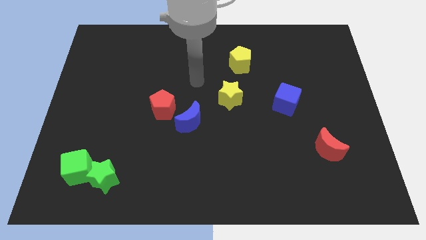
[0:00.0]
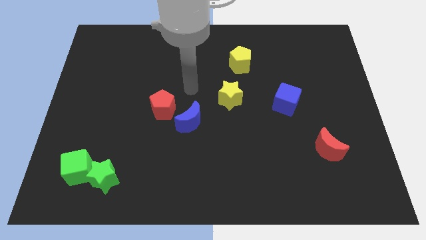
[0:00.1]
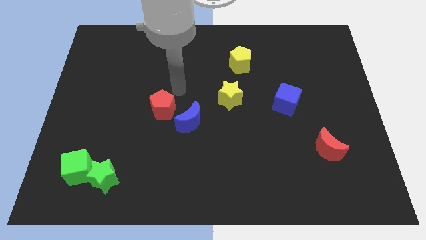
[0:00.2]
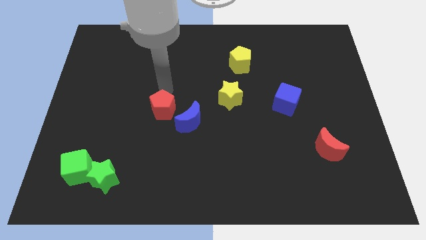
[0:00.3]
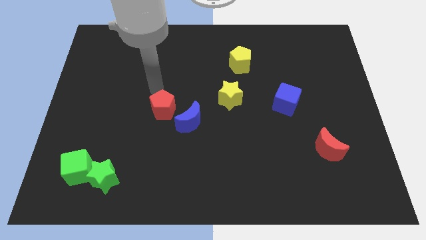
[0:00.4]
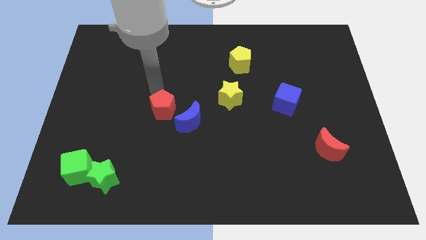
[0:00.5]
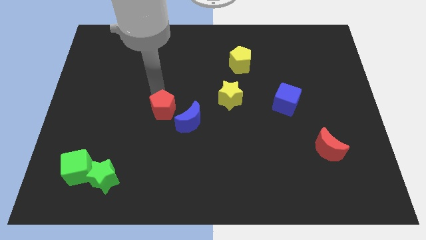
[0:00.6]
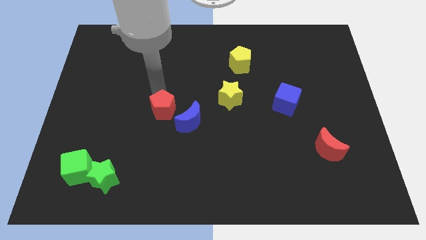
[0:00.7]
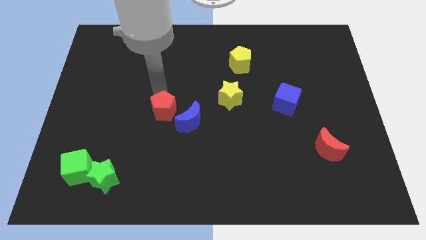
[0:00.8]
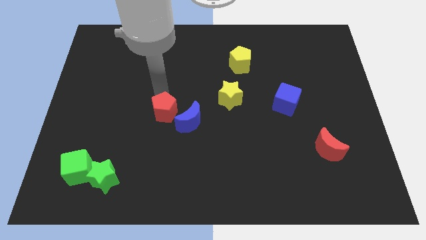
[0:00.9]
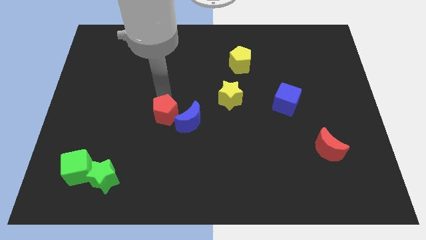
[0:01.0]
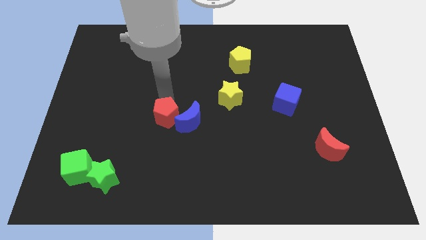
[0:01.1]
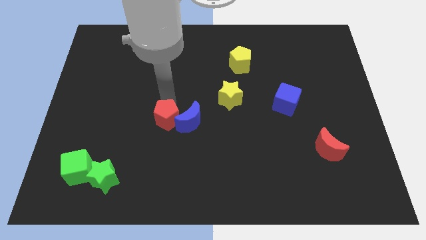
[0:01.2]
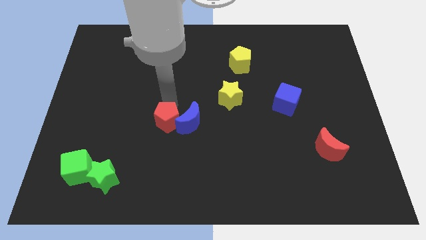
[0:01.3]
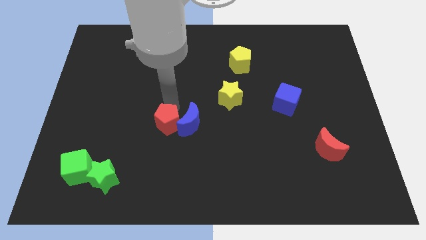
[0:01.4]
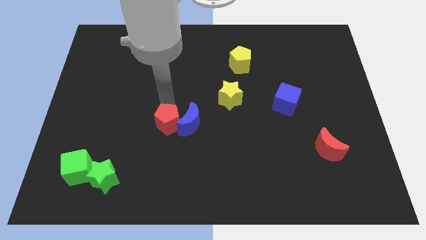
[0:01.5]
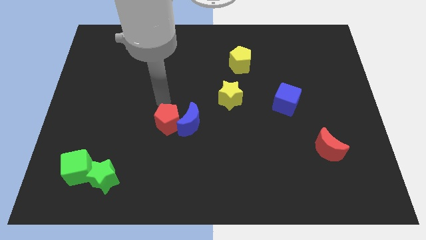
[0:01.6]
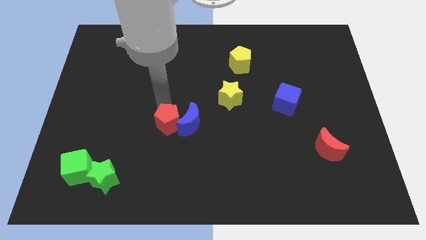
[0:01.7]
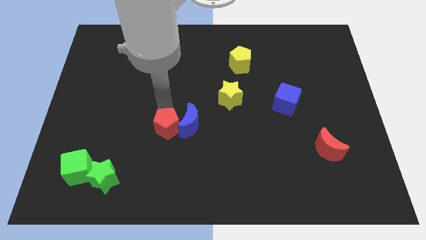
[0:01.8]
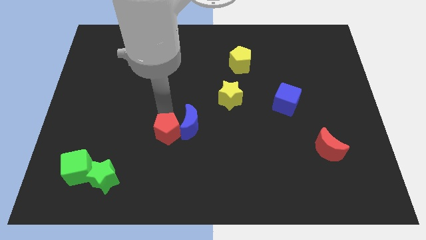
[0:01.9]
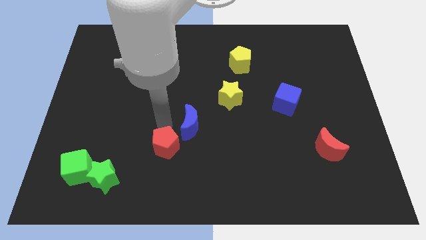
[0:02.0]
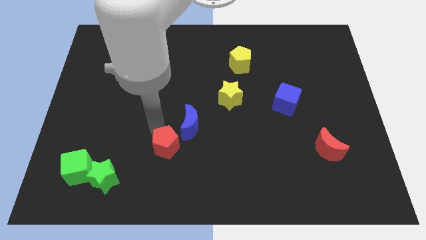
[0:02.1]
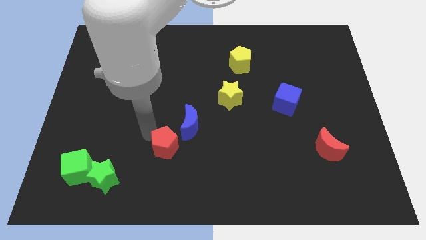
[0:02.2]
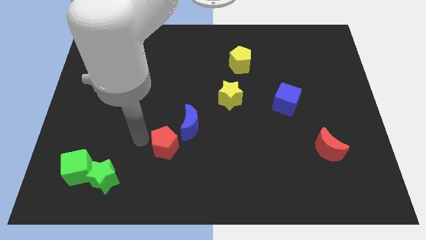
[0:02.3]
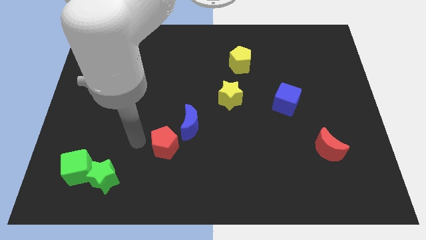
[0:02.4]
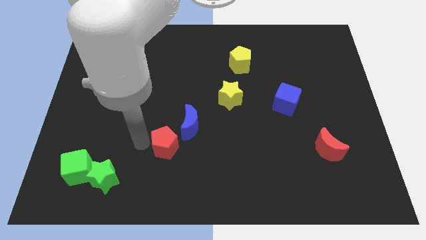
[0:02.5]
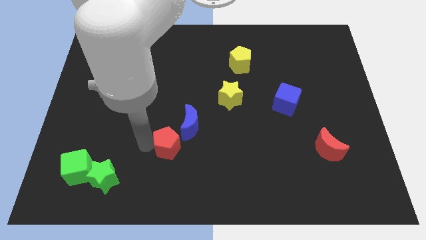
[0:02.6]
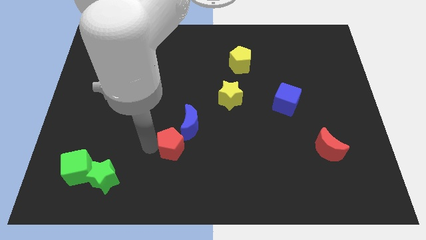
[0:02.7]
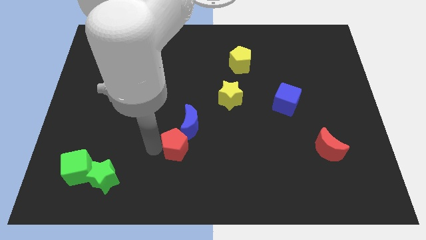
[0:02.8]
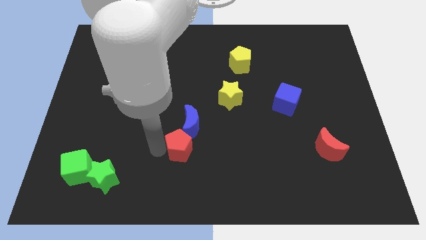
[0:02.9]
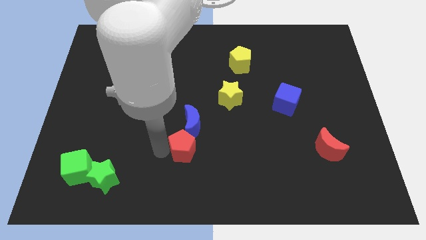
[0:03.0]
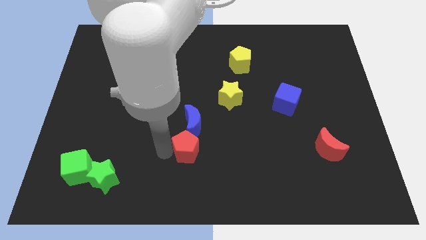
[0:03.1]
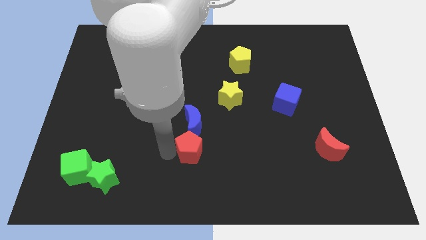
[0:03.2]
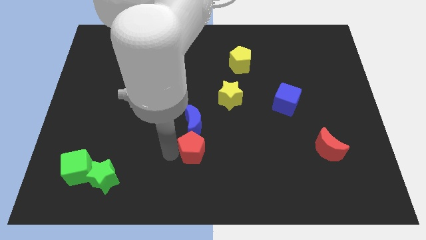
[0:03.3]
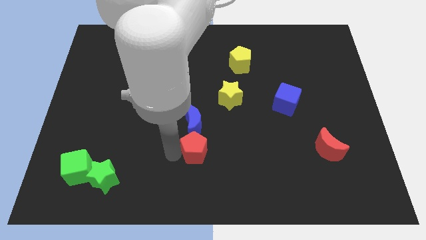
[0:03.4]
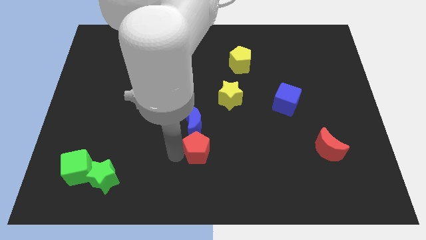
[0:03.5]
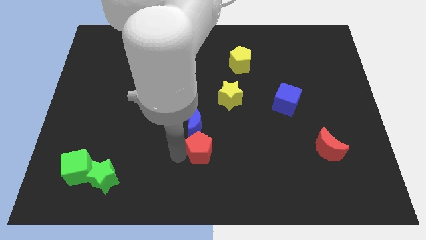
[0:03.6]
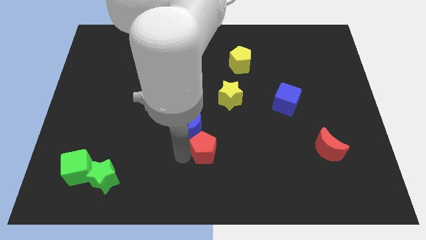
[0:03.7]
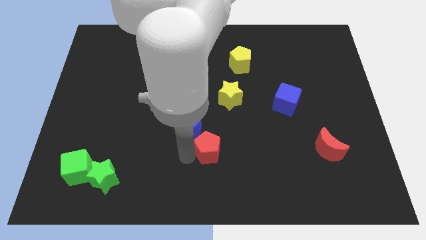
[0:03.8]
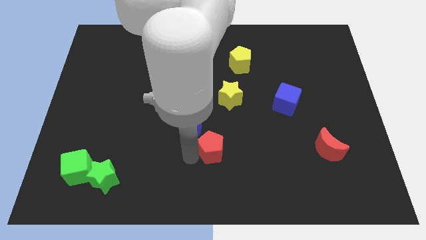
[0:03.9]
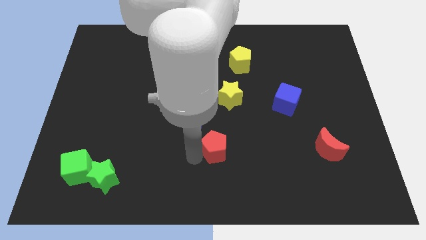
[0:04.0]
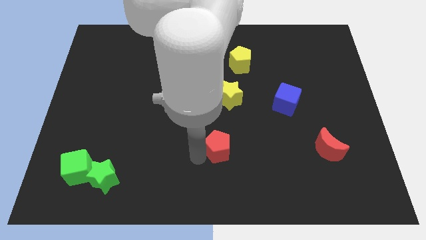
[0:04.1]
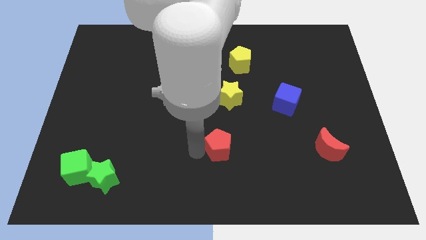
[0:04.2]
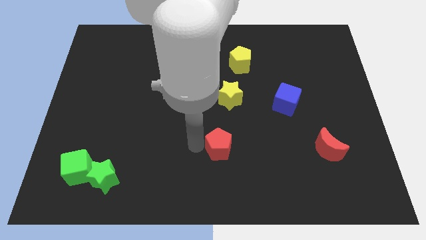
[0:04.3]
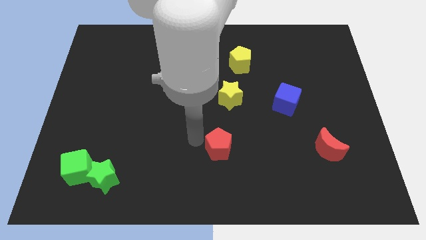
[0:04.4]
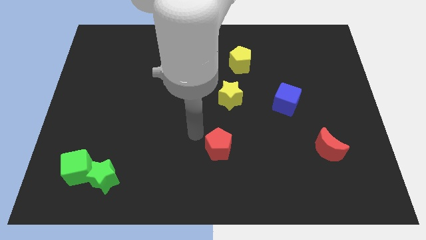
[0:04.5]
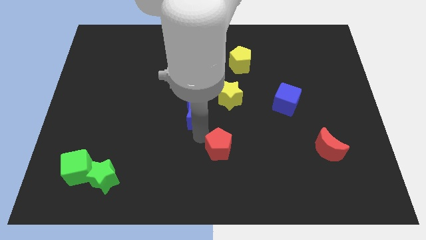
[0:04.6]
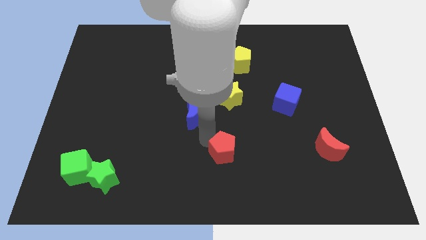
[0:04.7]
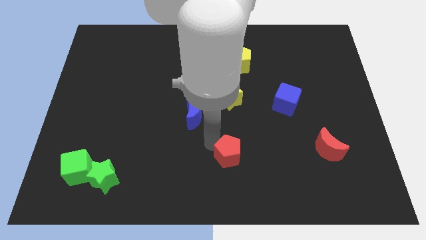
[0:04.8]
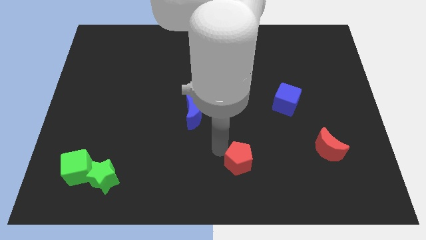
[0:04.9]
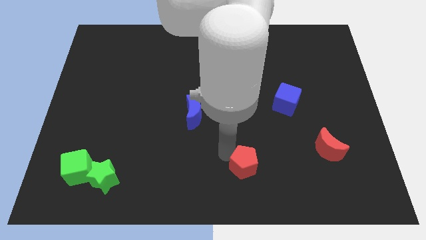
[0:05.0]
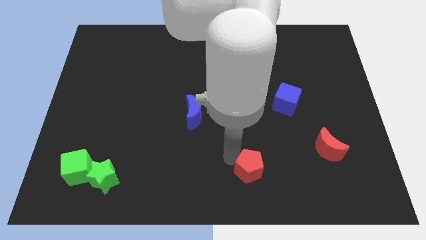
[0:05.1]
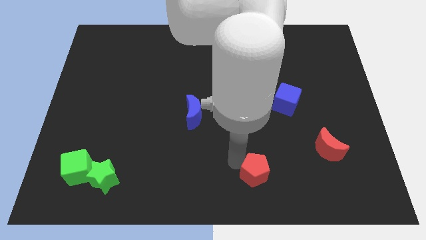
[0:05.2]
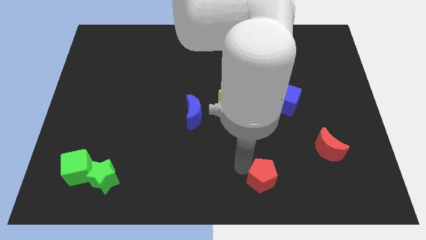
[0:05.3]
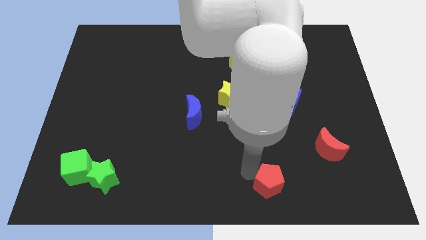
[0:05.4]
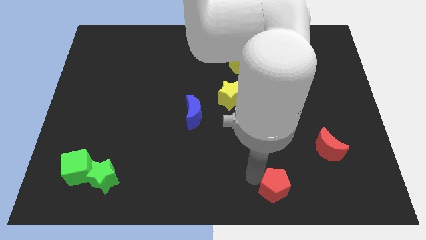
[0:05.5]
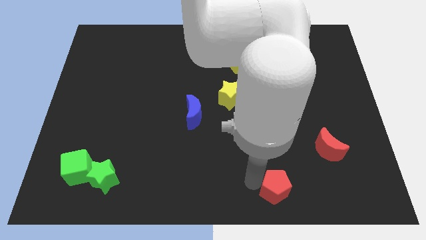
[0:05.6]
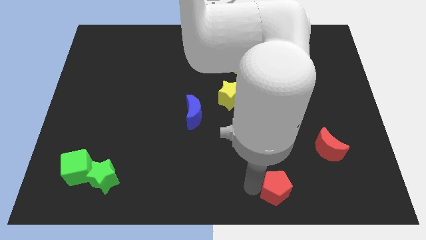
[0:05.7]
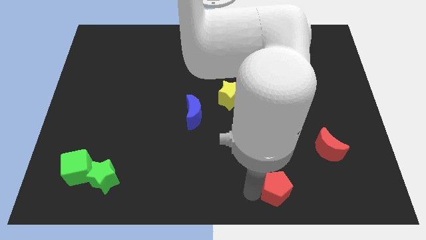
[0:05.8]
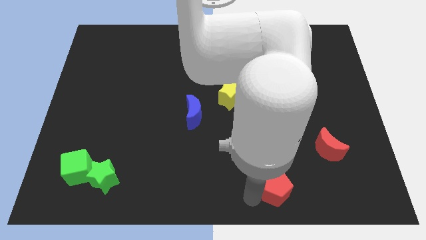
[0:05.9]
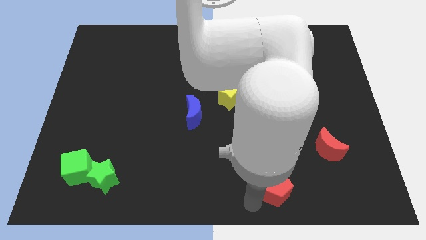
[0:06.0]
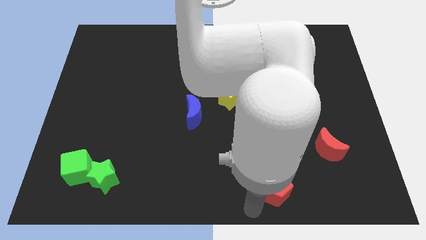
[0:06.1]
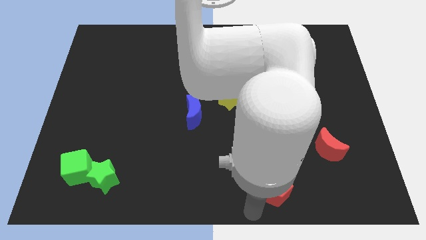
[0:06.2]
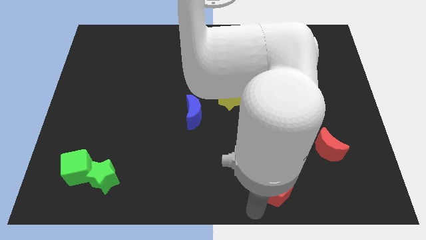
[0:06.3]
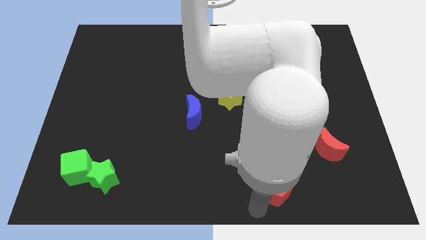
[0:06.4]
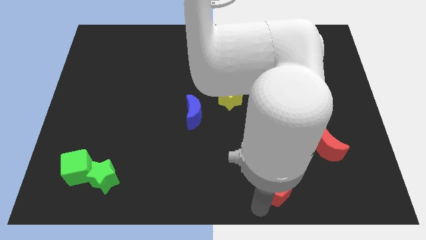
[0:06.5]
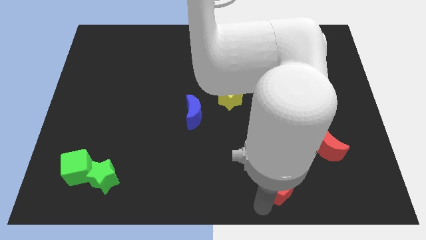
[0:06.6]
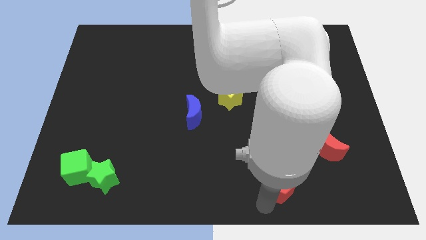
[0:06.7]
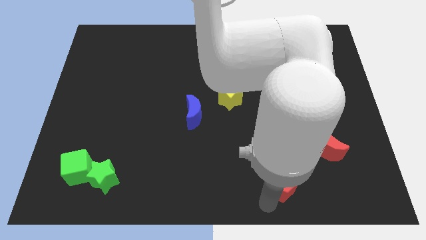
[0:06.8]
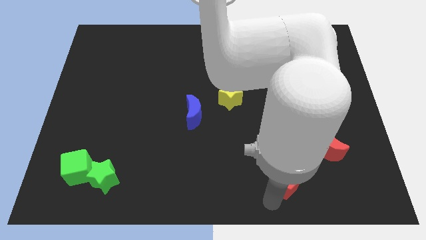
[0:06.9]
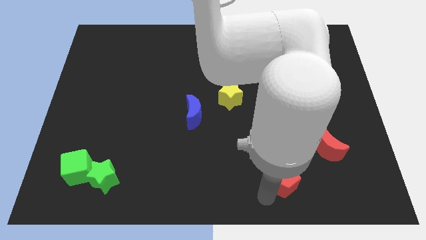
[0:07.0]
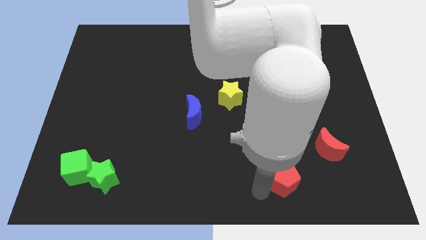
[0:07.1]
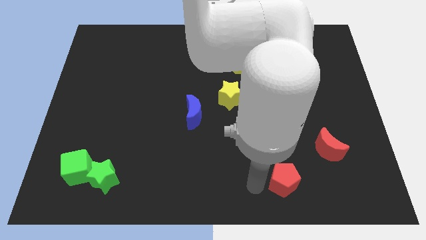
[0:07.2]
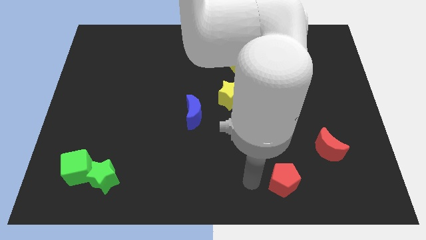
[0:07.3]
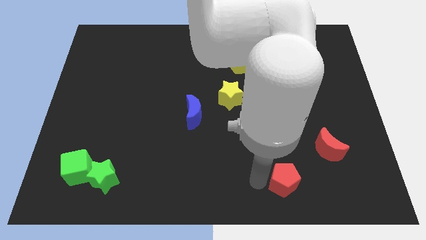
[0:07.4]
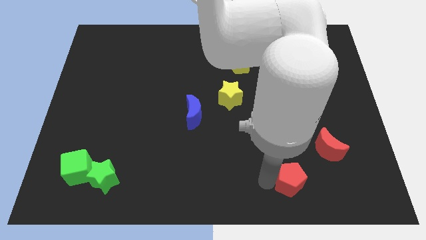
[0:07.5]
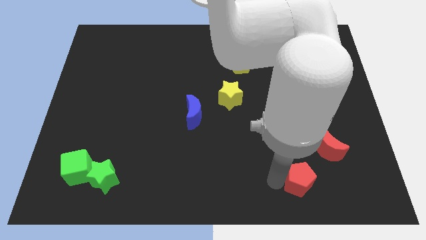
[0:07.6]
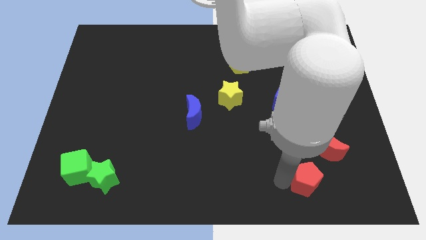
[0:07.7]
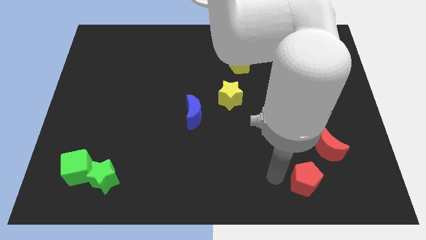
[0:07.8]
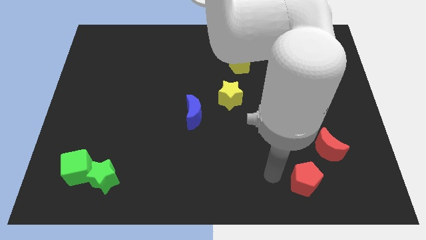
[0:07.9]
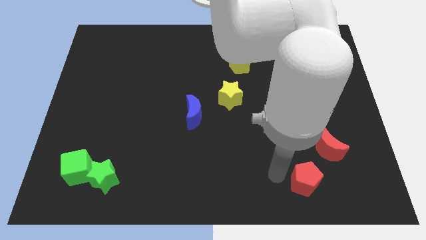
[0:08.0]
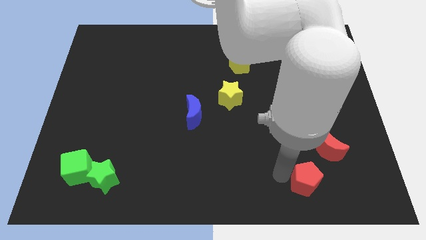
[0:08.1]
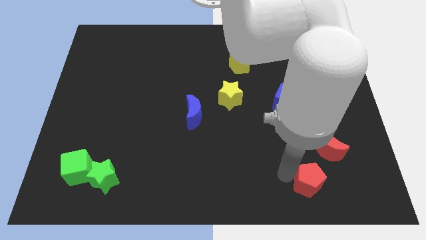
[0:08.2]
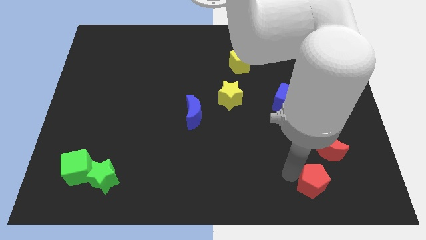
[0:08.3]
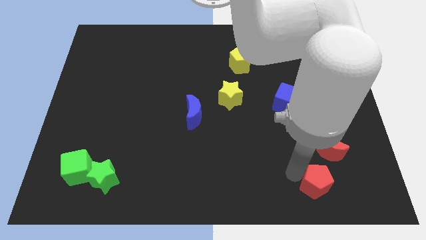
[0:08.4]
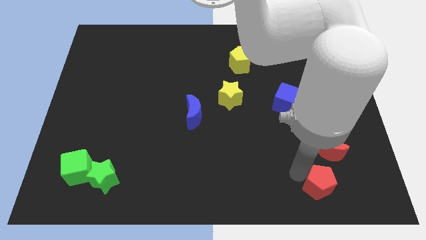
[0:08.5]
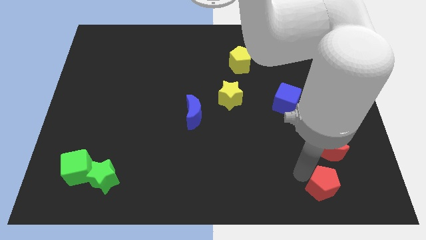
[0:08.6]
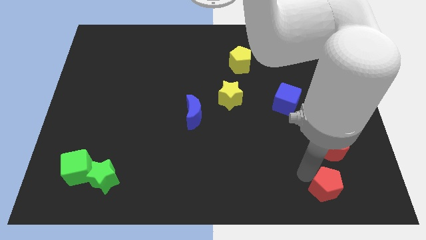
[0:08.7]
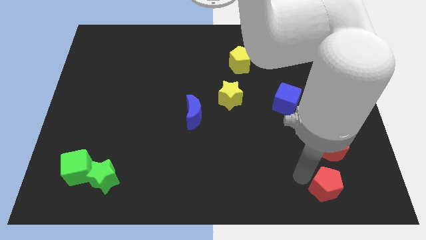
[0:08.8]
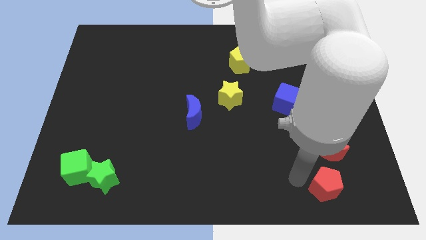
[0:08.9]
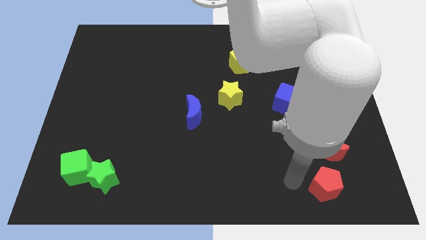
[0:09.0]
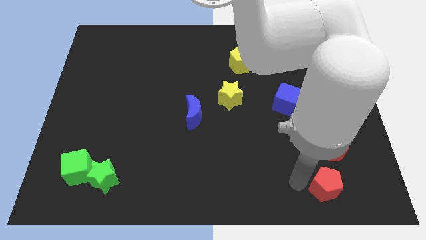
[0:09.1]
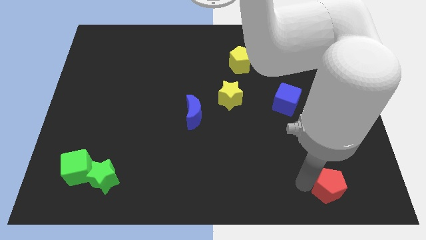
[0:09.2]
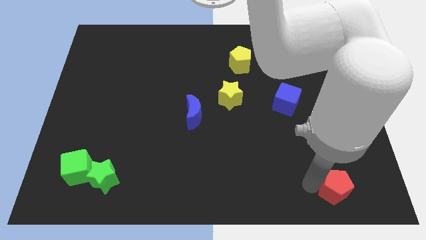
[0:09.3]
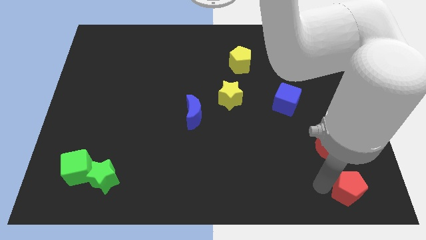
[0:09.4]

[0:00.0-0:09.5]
move the red pentagon to the lower right corner
